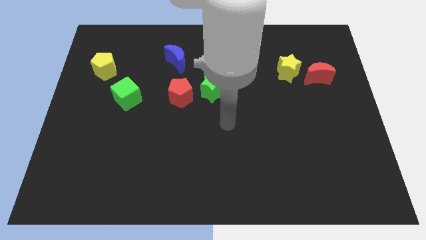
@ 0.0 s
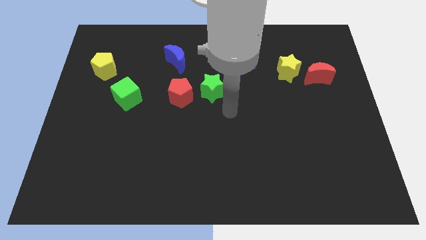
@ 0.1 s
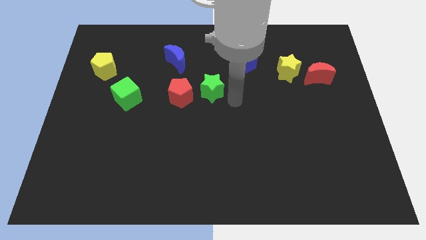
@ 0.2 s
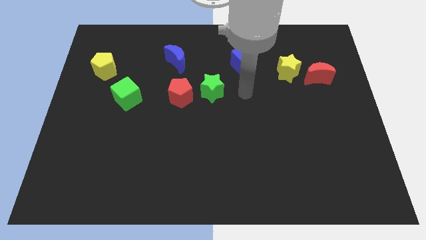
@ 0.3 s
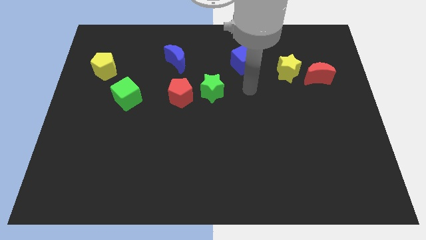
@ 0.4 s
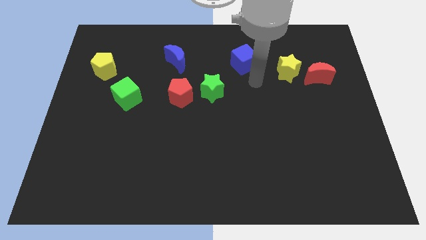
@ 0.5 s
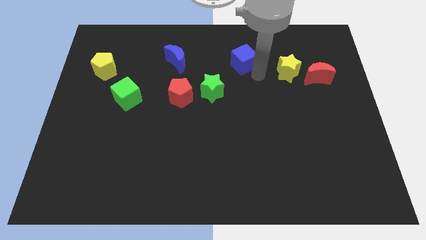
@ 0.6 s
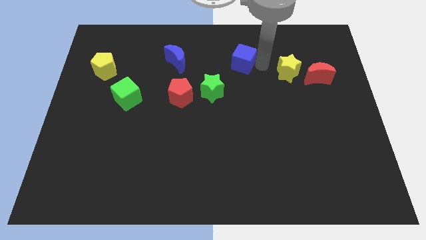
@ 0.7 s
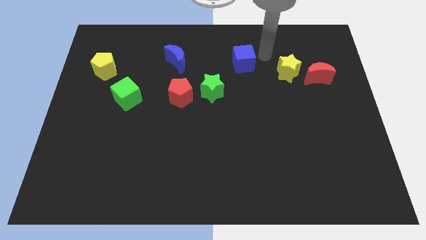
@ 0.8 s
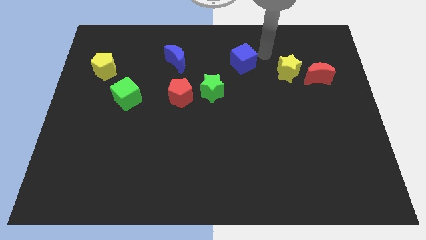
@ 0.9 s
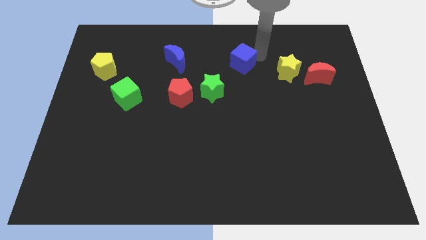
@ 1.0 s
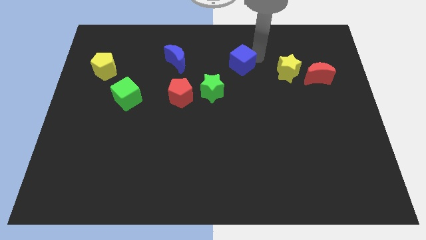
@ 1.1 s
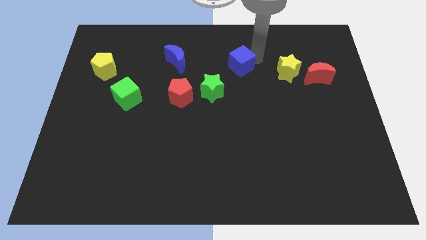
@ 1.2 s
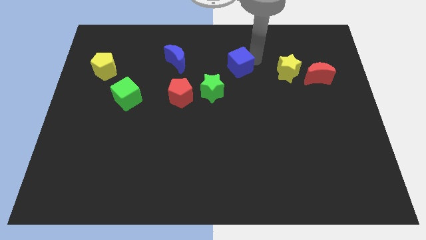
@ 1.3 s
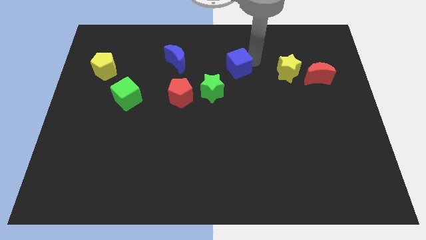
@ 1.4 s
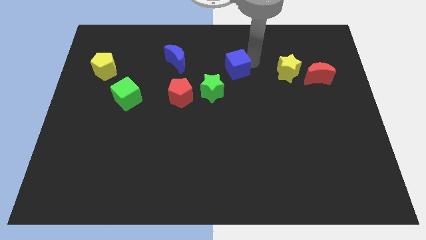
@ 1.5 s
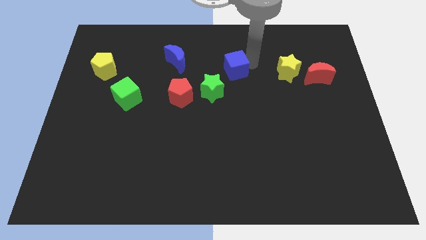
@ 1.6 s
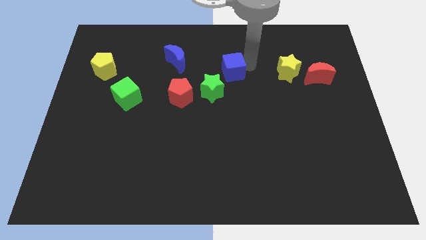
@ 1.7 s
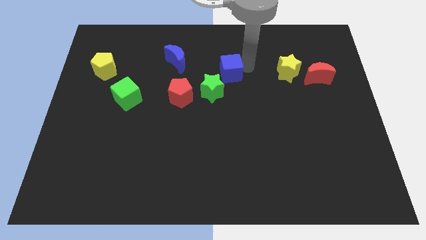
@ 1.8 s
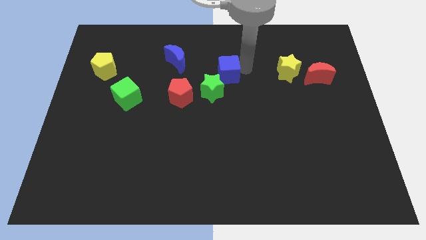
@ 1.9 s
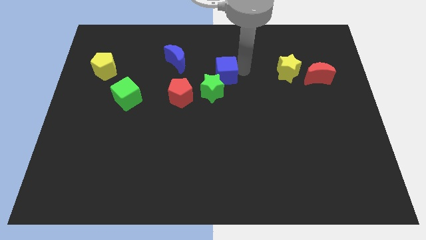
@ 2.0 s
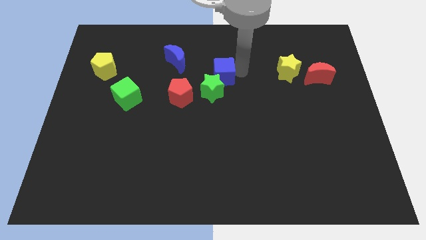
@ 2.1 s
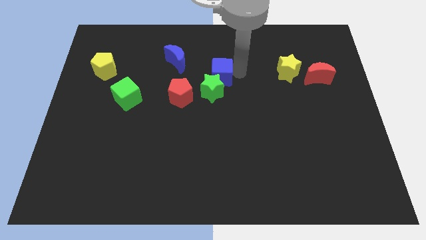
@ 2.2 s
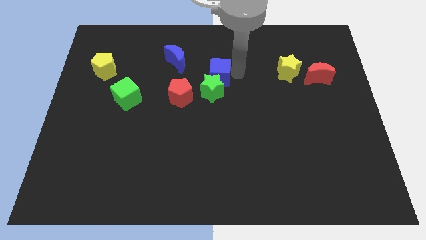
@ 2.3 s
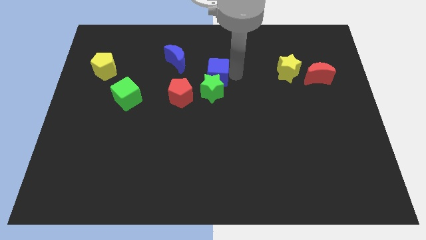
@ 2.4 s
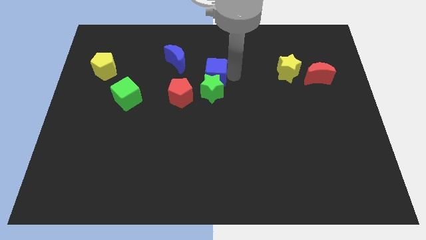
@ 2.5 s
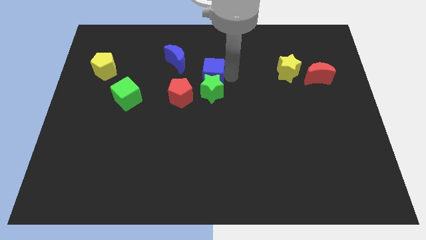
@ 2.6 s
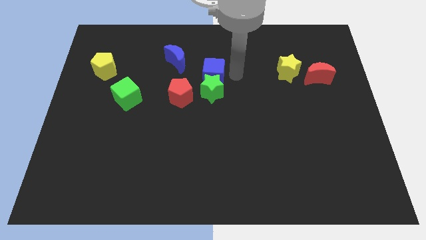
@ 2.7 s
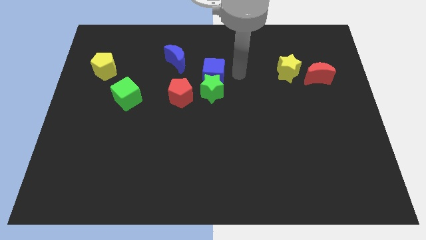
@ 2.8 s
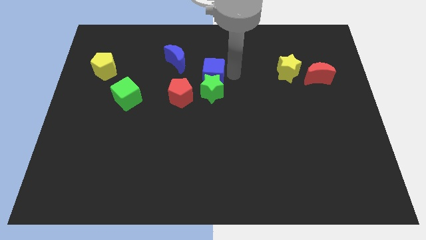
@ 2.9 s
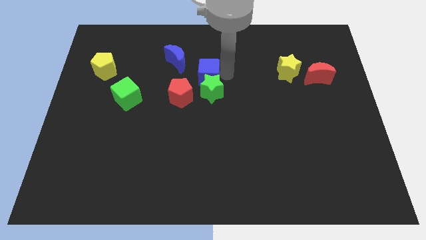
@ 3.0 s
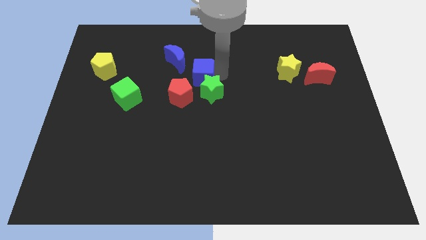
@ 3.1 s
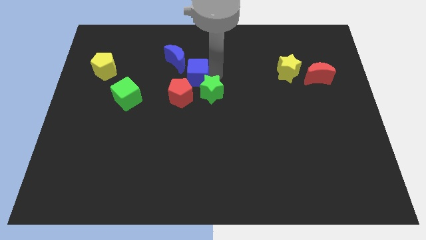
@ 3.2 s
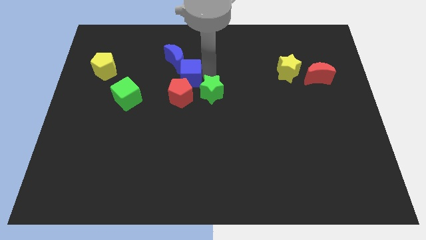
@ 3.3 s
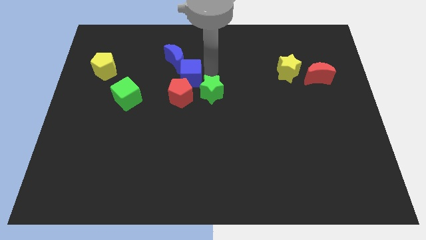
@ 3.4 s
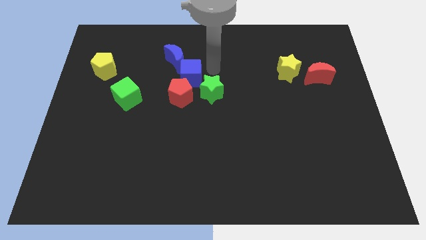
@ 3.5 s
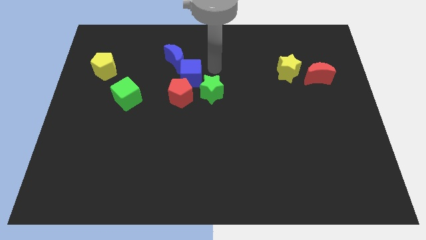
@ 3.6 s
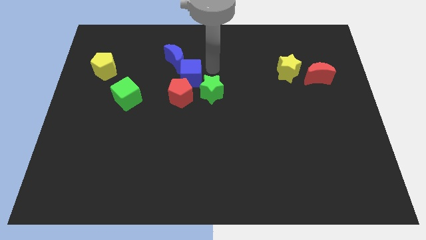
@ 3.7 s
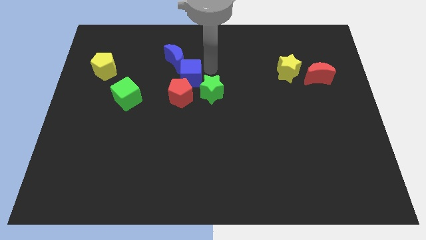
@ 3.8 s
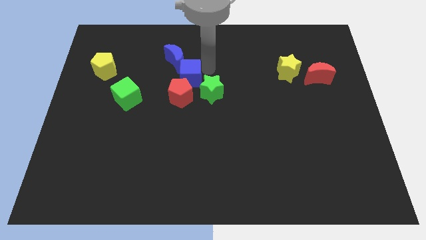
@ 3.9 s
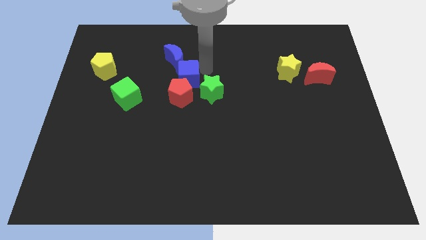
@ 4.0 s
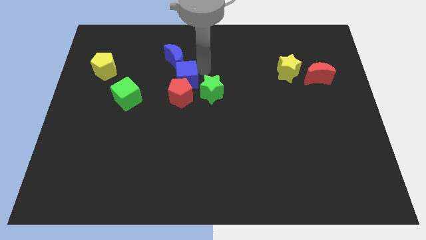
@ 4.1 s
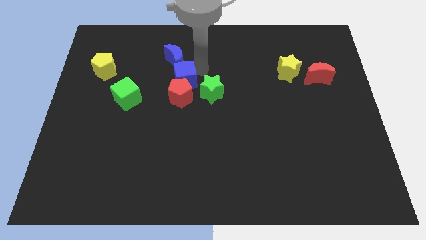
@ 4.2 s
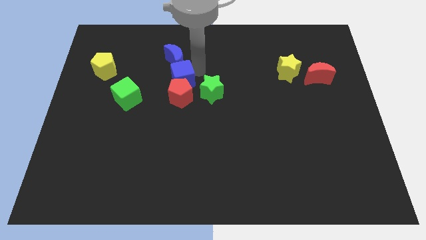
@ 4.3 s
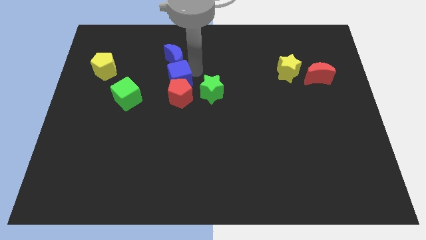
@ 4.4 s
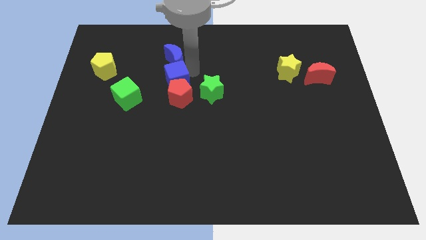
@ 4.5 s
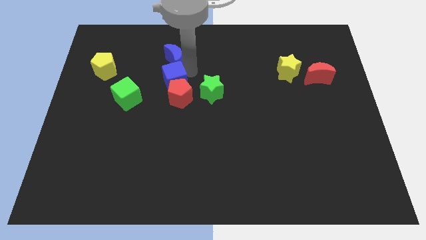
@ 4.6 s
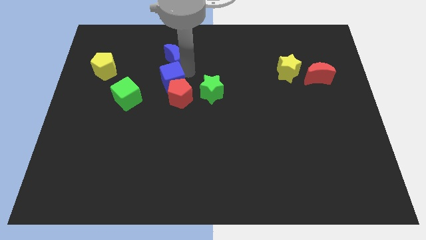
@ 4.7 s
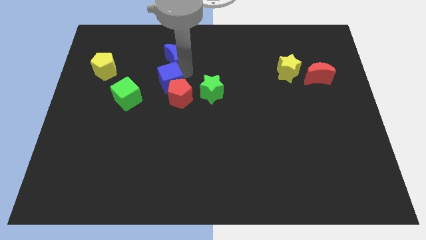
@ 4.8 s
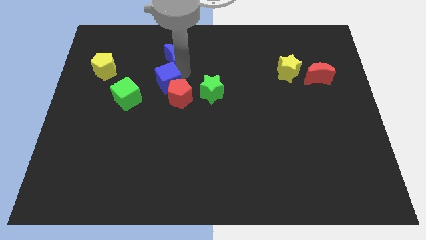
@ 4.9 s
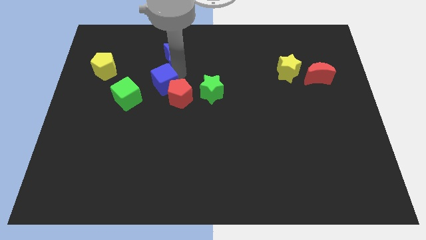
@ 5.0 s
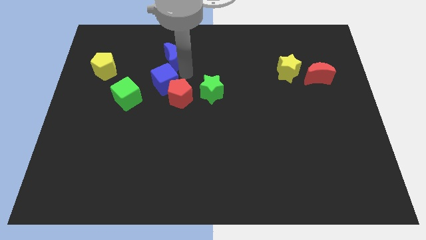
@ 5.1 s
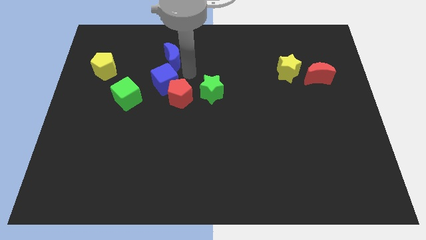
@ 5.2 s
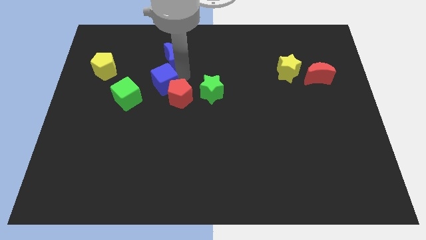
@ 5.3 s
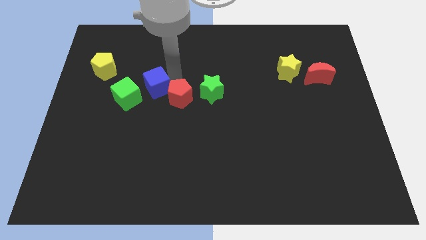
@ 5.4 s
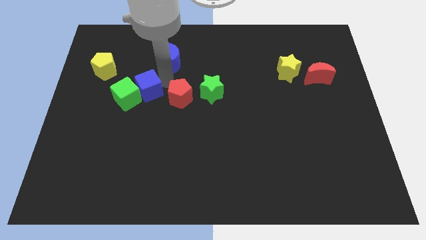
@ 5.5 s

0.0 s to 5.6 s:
slide the blue cube towards the green cube

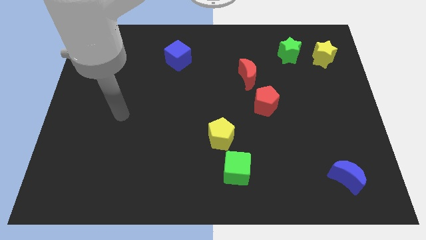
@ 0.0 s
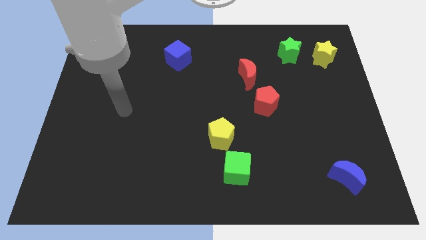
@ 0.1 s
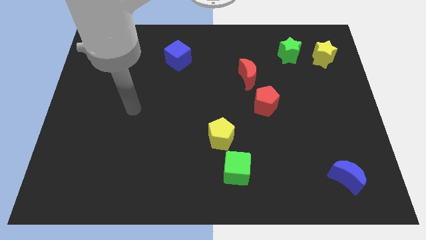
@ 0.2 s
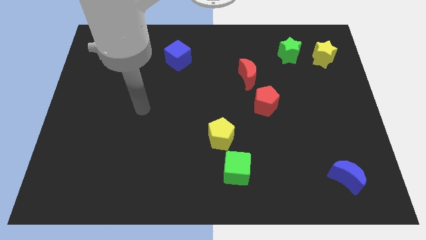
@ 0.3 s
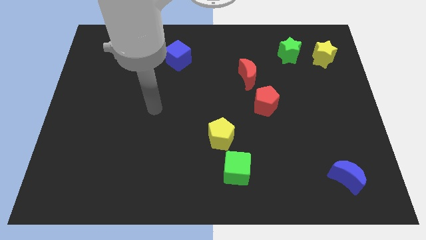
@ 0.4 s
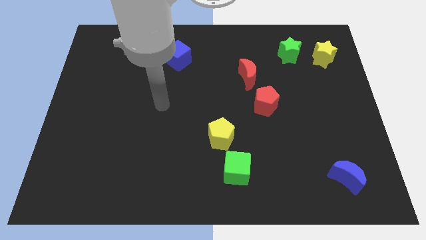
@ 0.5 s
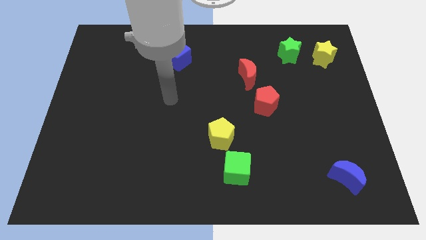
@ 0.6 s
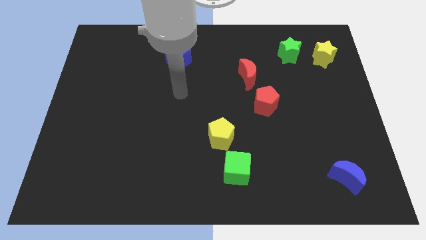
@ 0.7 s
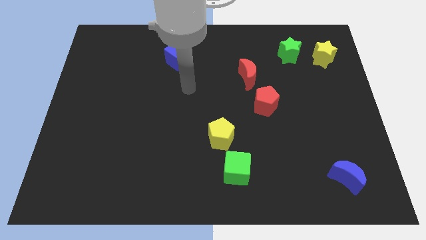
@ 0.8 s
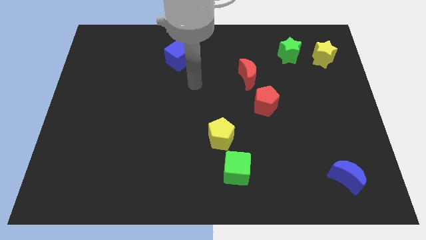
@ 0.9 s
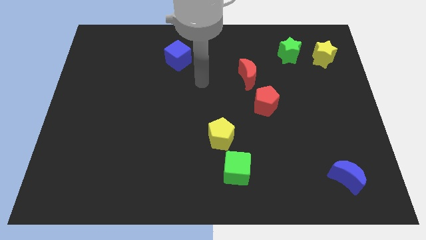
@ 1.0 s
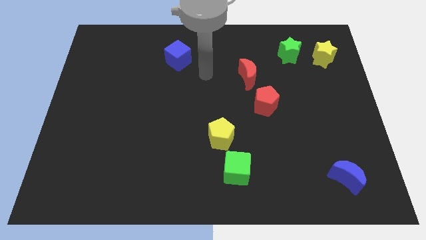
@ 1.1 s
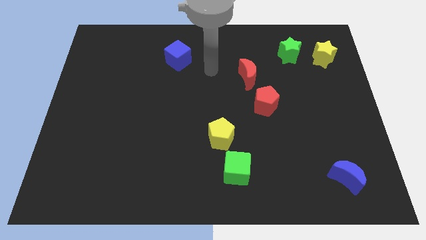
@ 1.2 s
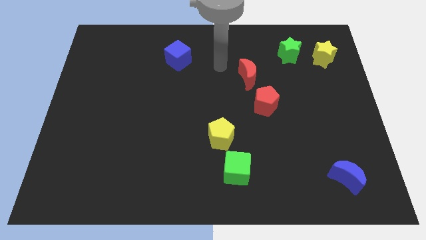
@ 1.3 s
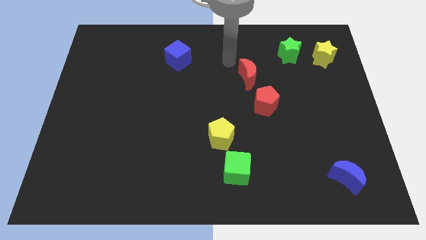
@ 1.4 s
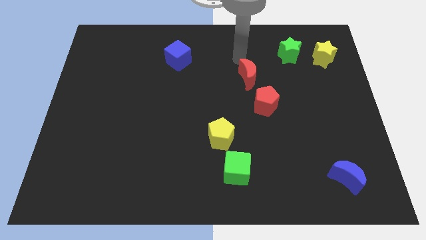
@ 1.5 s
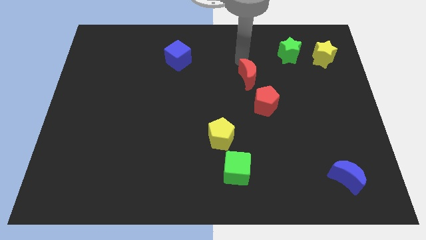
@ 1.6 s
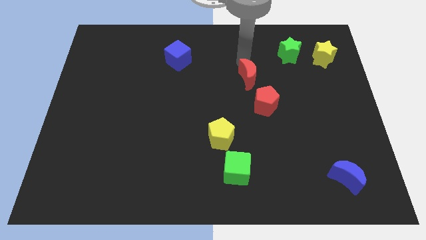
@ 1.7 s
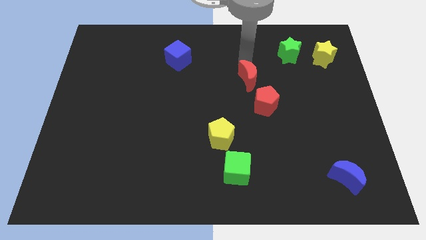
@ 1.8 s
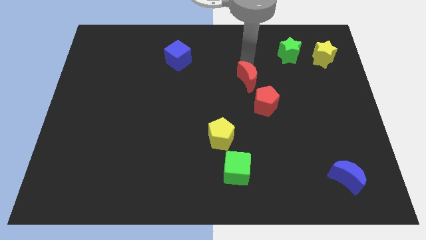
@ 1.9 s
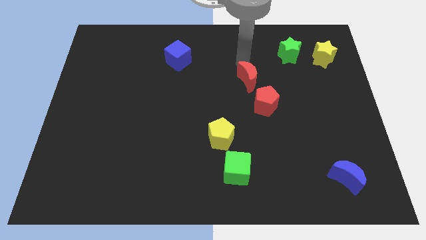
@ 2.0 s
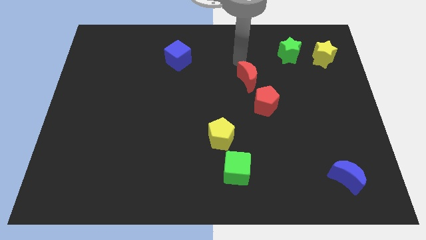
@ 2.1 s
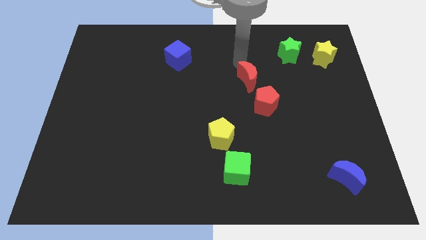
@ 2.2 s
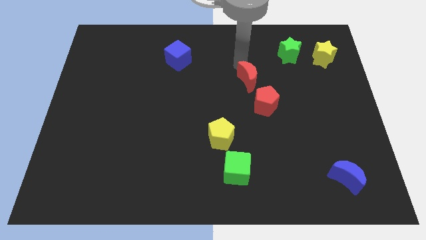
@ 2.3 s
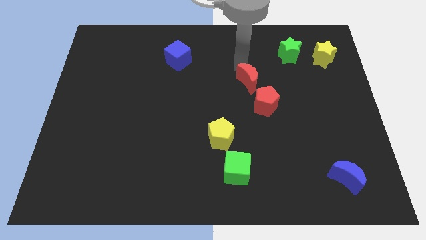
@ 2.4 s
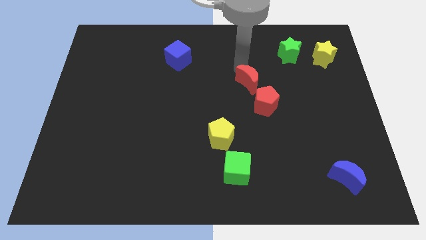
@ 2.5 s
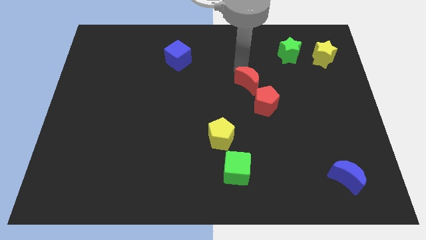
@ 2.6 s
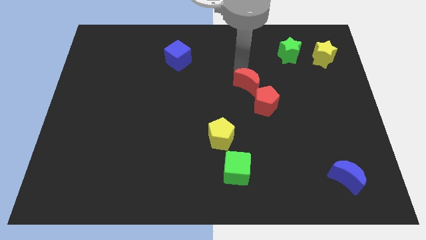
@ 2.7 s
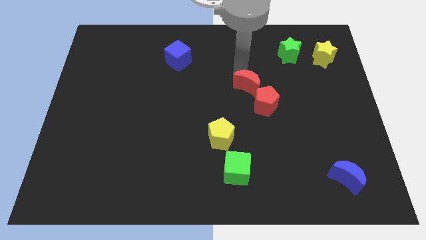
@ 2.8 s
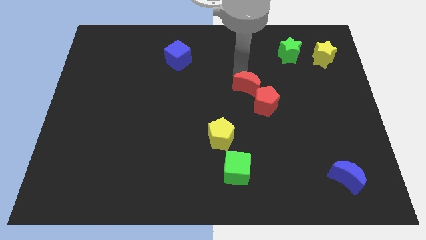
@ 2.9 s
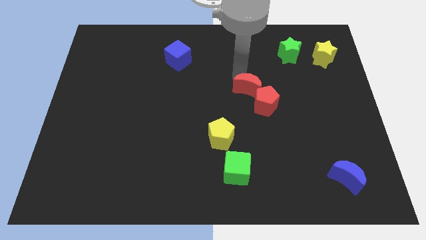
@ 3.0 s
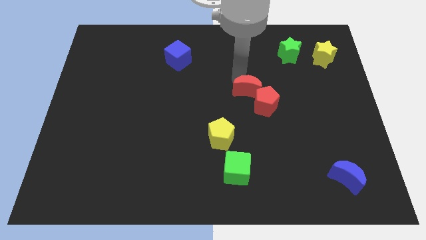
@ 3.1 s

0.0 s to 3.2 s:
slide the red moon close to the red pentagon
